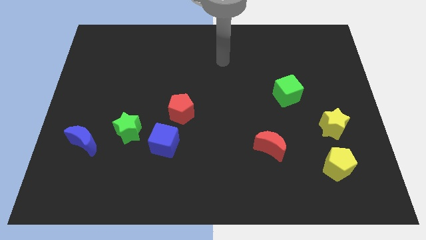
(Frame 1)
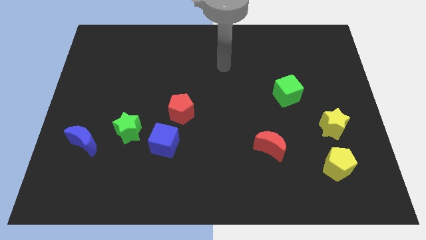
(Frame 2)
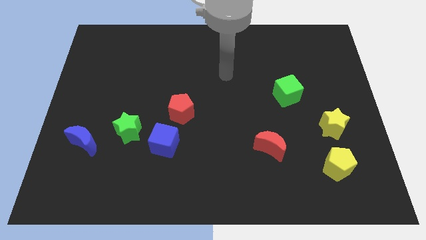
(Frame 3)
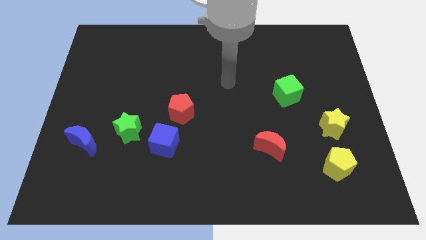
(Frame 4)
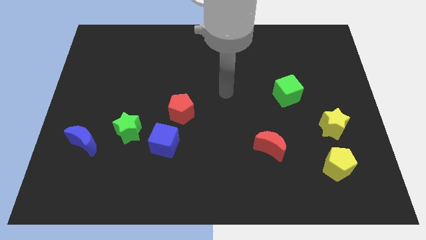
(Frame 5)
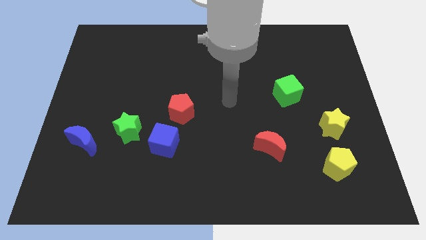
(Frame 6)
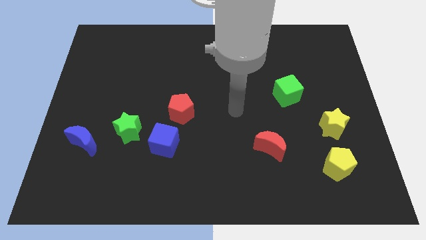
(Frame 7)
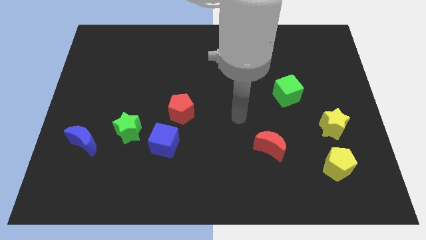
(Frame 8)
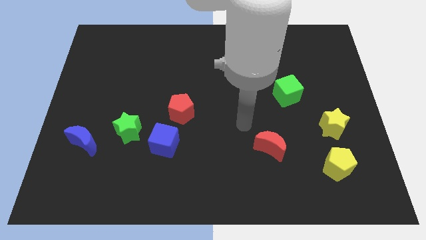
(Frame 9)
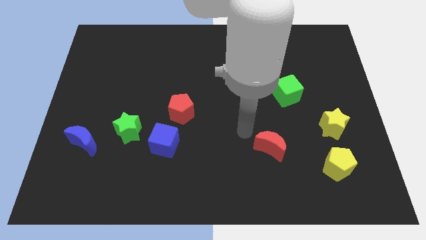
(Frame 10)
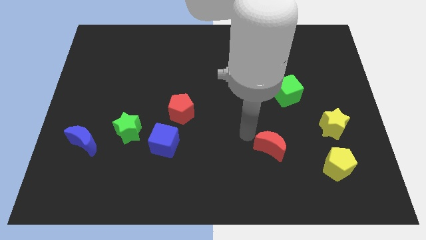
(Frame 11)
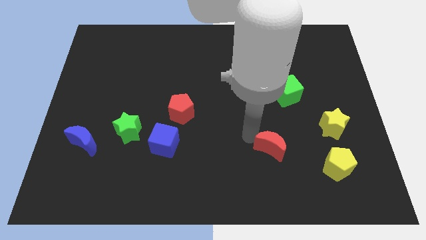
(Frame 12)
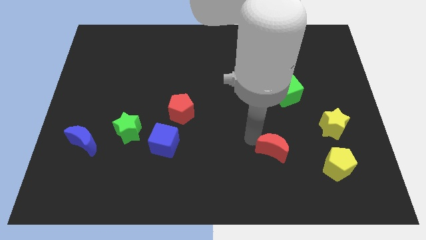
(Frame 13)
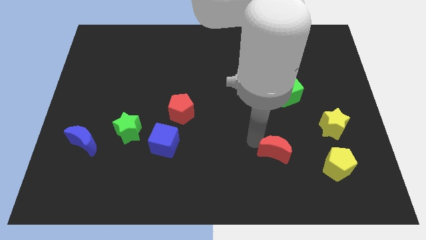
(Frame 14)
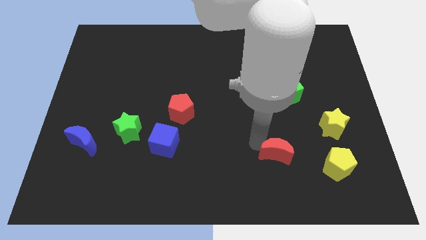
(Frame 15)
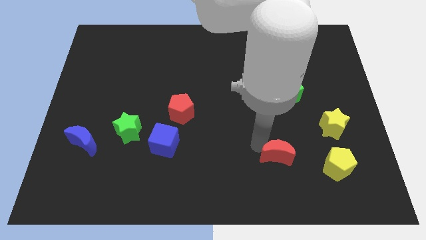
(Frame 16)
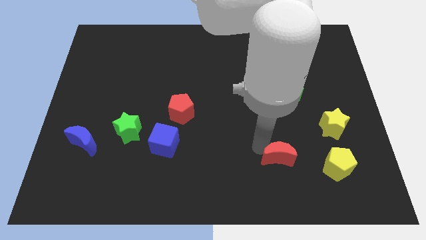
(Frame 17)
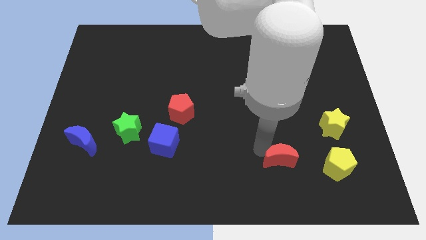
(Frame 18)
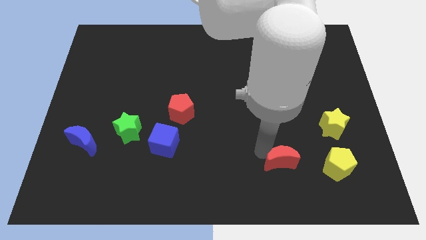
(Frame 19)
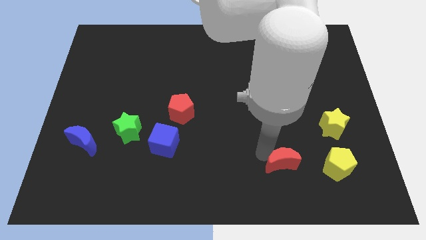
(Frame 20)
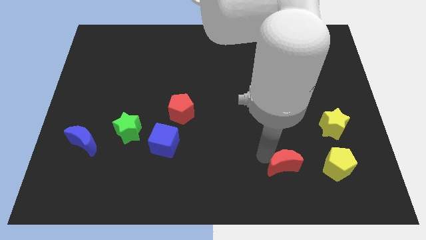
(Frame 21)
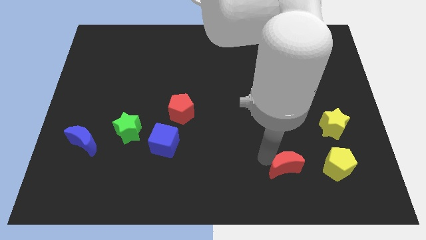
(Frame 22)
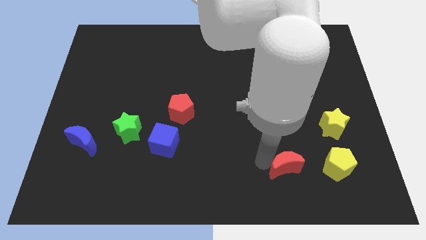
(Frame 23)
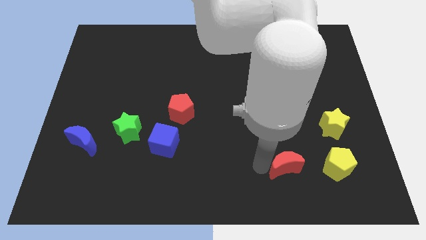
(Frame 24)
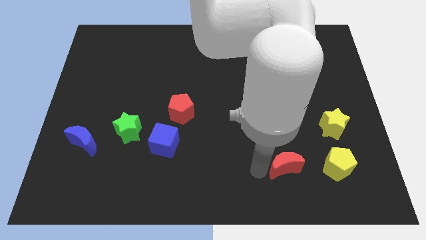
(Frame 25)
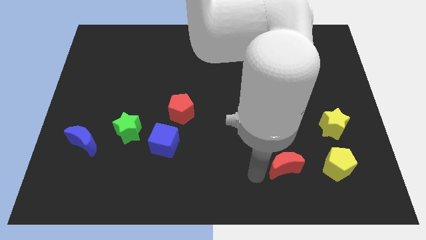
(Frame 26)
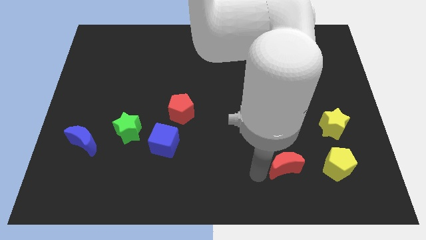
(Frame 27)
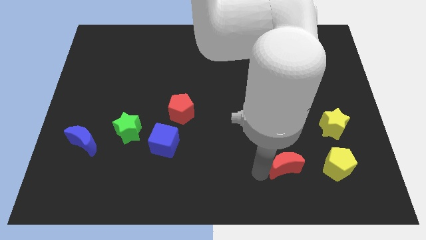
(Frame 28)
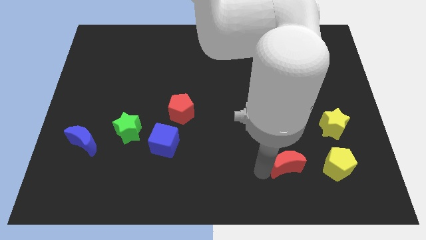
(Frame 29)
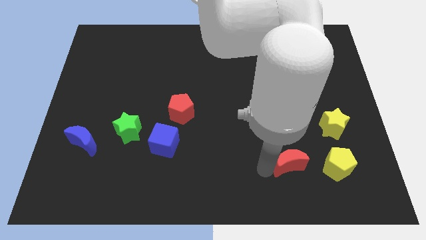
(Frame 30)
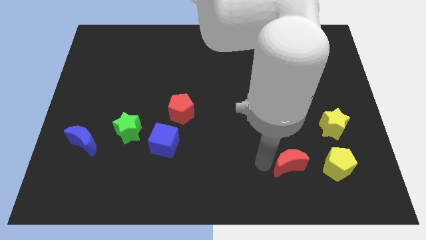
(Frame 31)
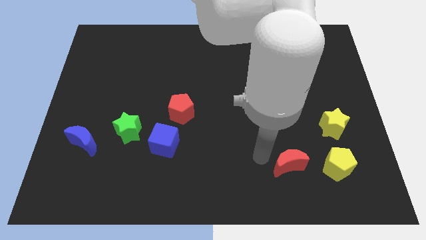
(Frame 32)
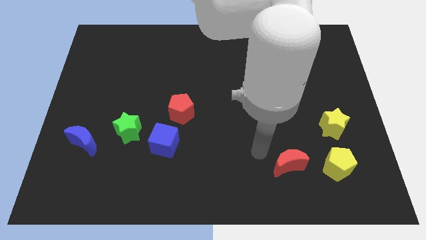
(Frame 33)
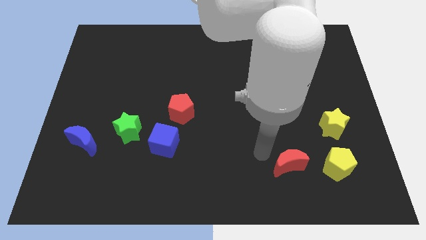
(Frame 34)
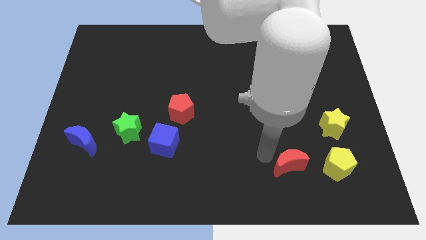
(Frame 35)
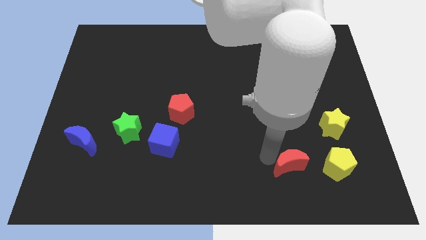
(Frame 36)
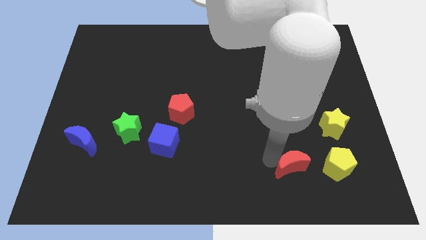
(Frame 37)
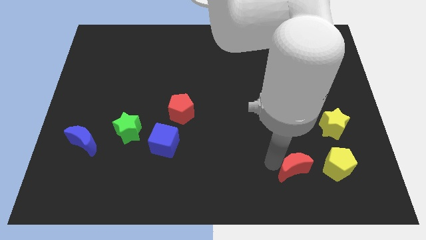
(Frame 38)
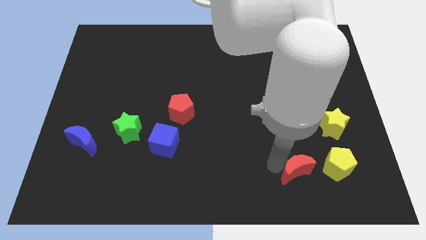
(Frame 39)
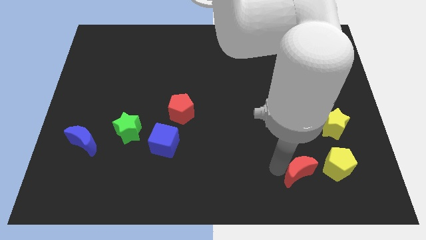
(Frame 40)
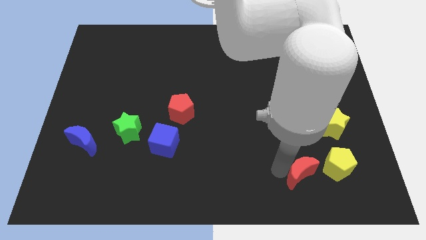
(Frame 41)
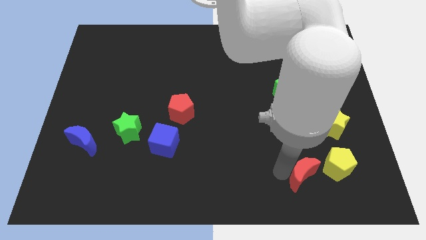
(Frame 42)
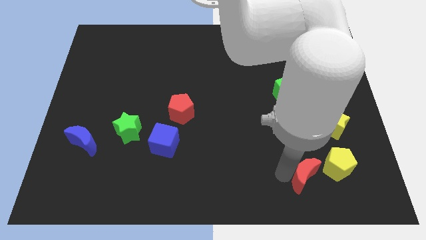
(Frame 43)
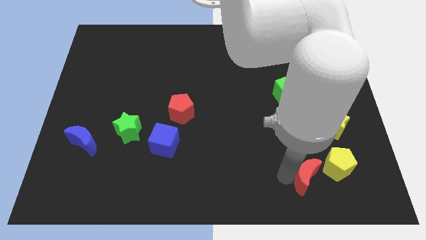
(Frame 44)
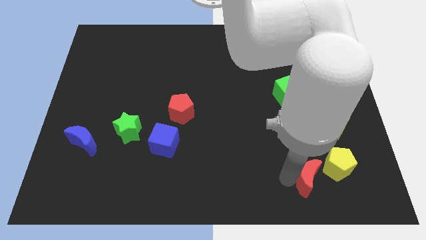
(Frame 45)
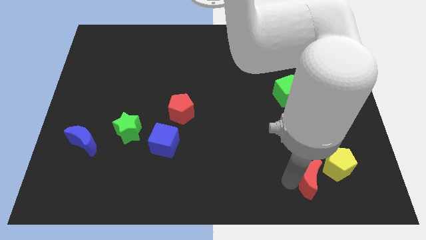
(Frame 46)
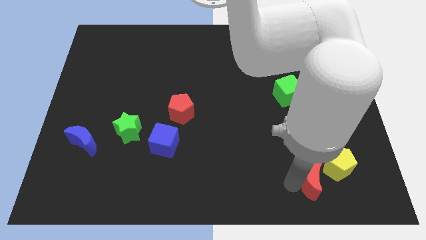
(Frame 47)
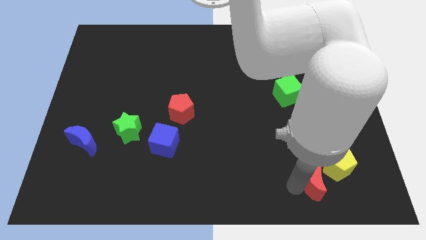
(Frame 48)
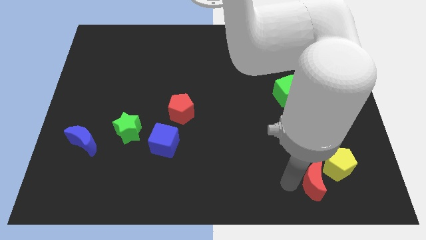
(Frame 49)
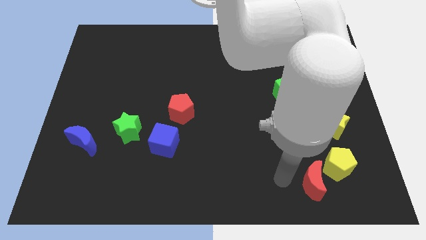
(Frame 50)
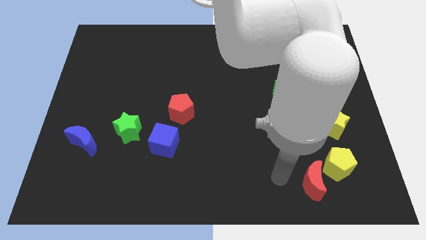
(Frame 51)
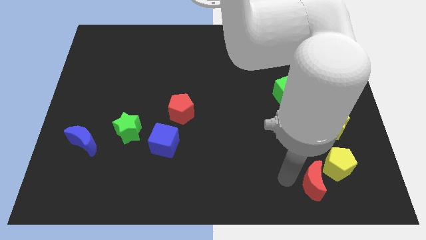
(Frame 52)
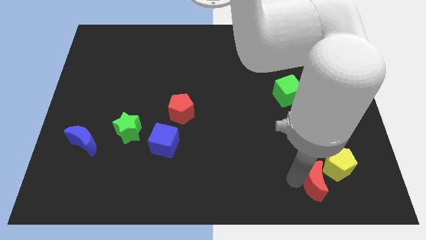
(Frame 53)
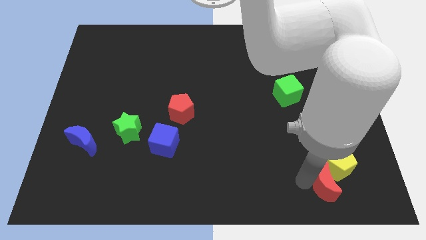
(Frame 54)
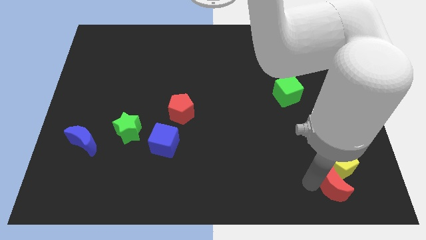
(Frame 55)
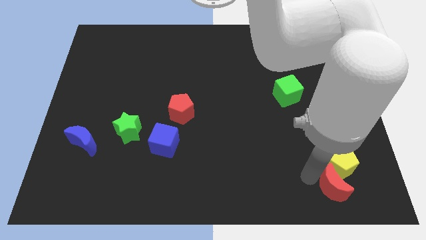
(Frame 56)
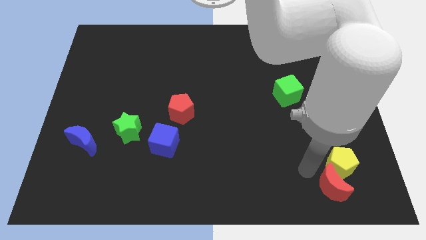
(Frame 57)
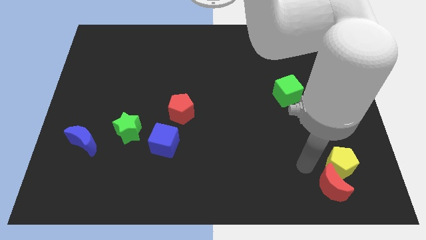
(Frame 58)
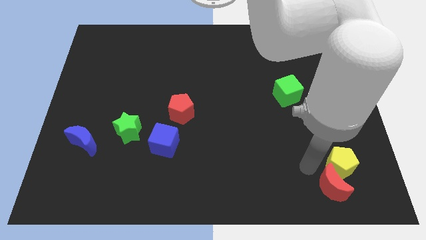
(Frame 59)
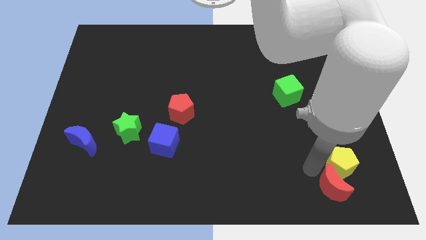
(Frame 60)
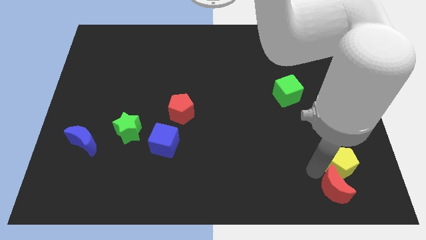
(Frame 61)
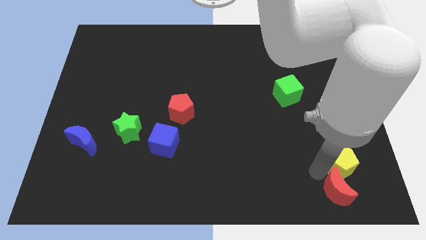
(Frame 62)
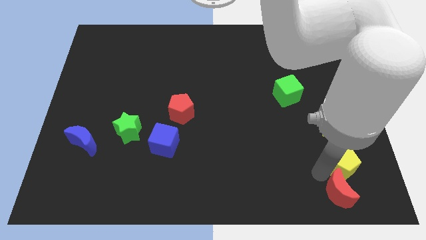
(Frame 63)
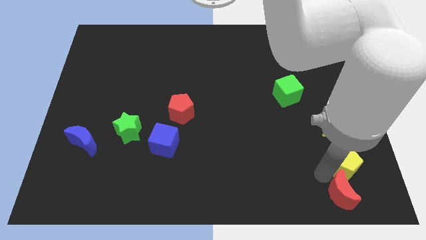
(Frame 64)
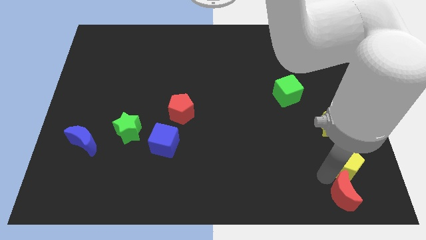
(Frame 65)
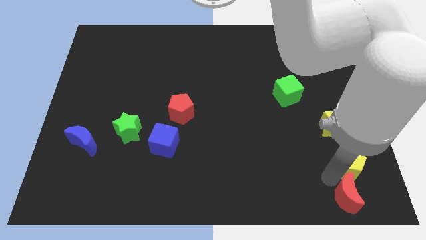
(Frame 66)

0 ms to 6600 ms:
push the red moon to the lower right corner
